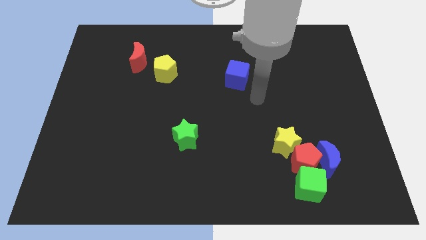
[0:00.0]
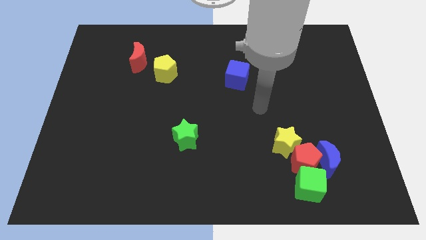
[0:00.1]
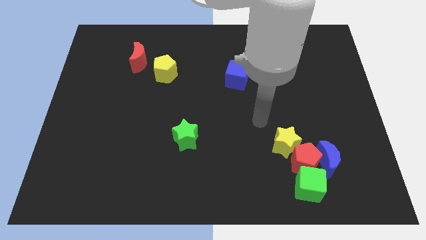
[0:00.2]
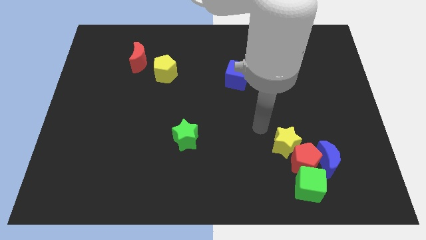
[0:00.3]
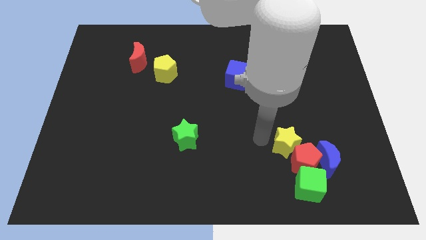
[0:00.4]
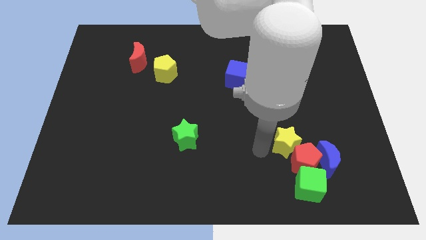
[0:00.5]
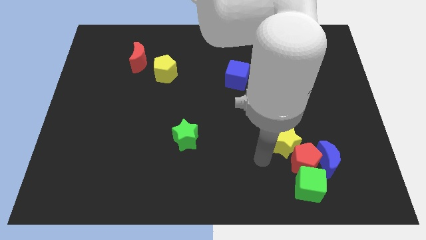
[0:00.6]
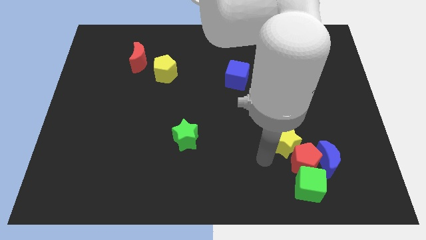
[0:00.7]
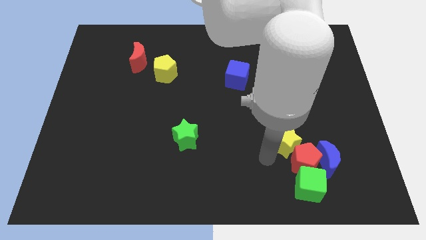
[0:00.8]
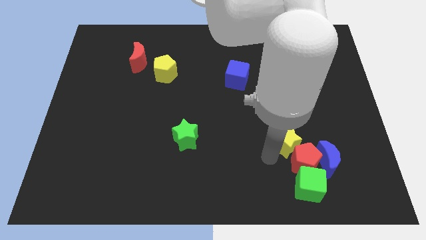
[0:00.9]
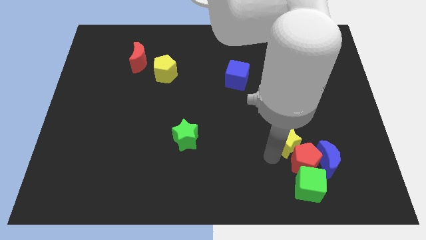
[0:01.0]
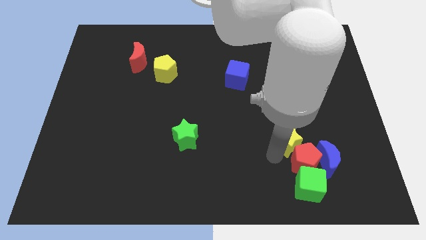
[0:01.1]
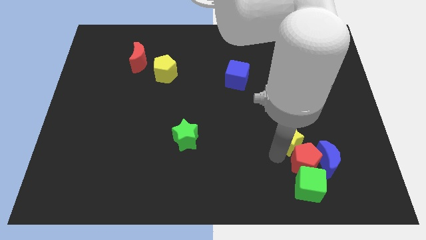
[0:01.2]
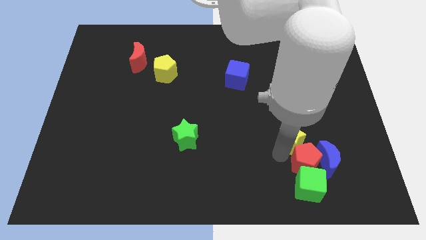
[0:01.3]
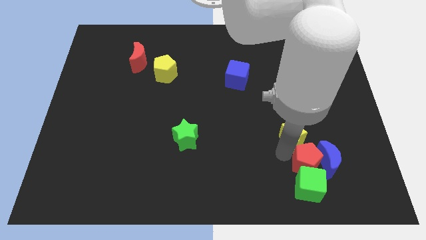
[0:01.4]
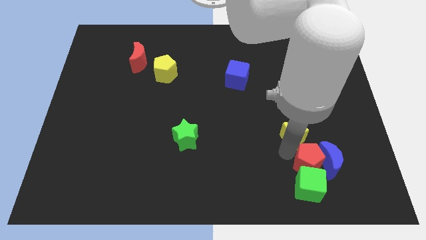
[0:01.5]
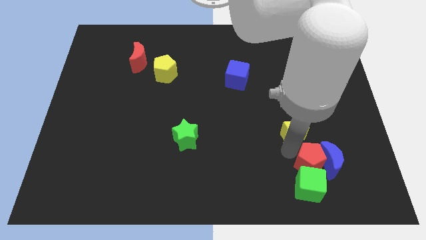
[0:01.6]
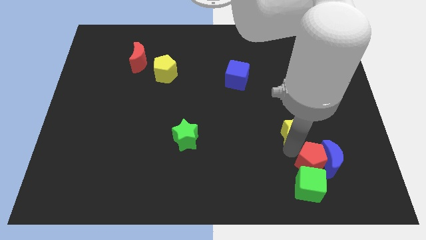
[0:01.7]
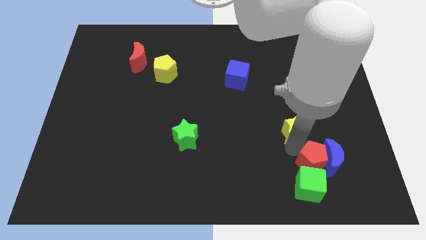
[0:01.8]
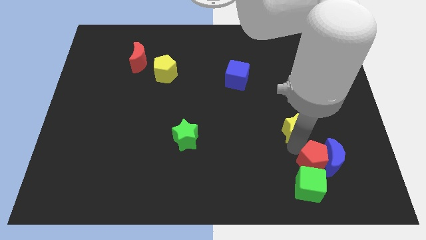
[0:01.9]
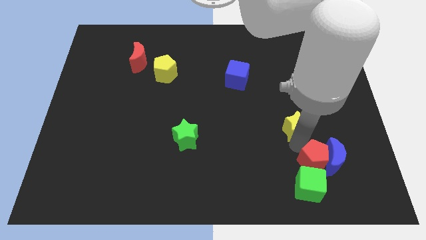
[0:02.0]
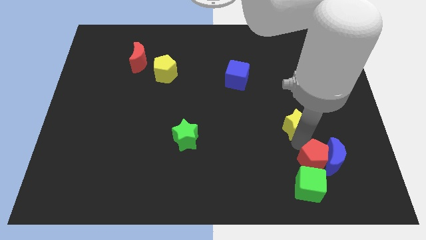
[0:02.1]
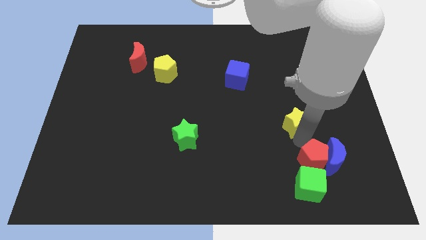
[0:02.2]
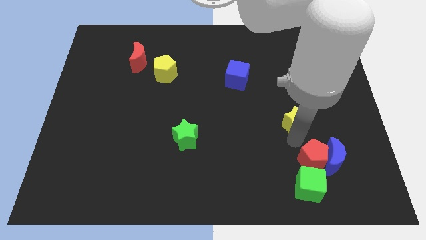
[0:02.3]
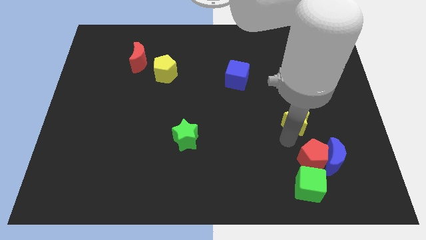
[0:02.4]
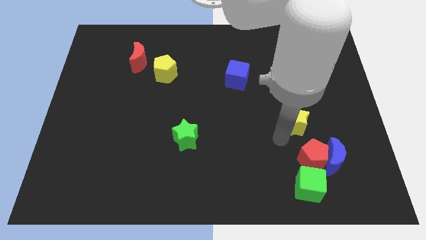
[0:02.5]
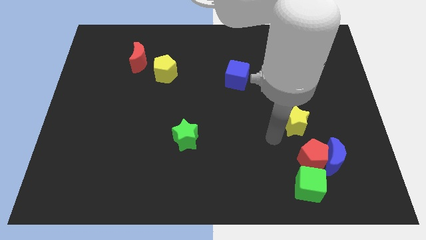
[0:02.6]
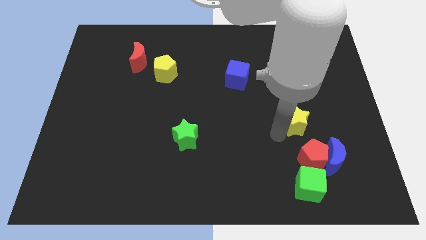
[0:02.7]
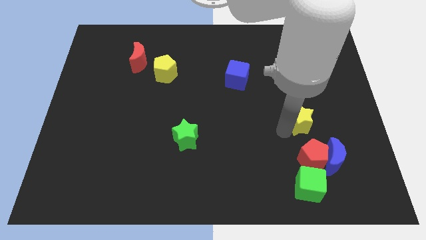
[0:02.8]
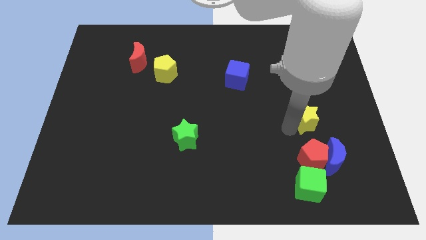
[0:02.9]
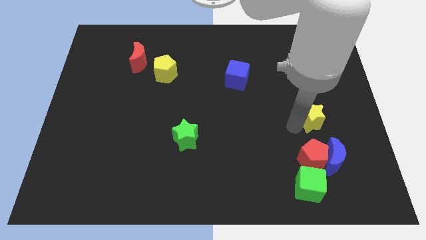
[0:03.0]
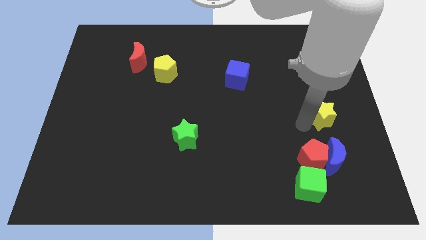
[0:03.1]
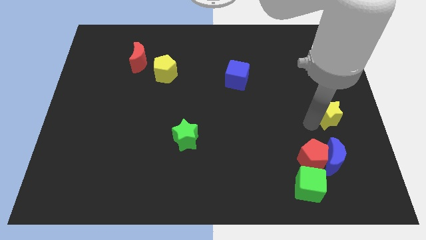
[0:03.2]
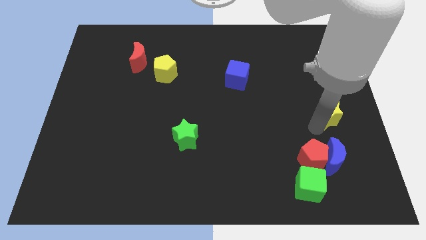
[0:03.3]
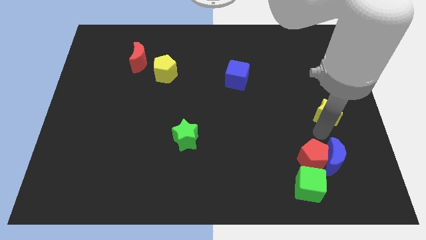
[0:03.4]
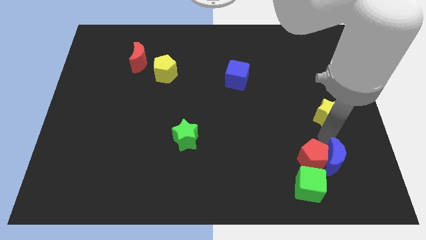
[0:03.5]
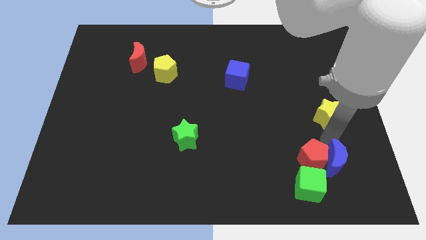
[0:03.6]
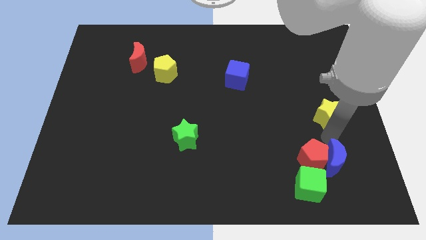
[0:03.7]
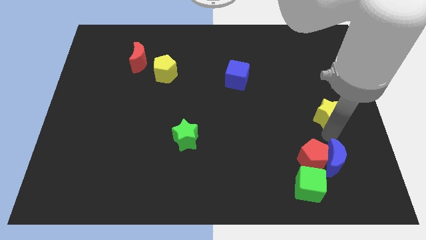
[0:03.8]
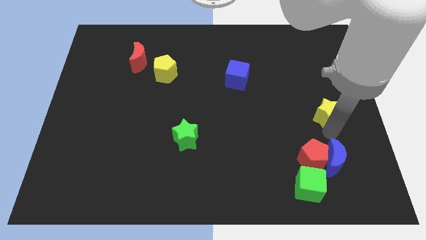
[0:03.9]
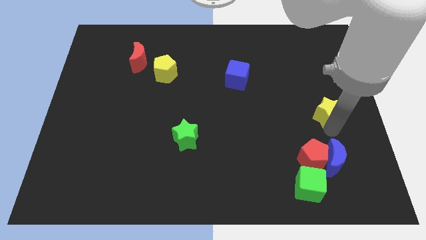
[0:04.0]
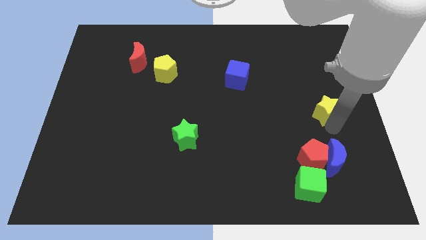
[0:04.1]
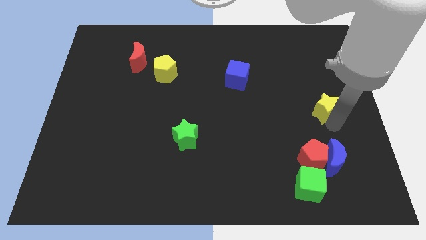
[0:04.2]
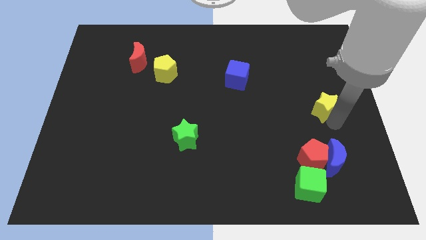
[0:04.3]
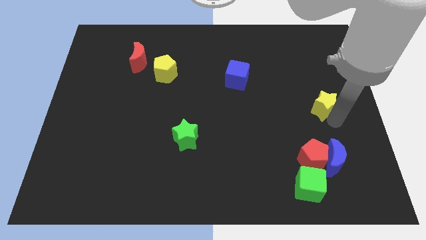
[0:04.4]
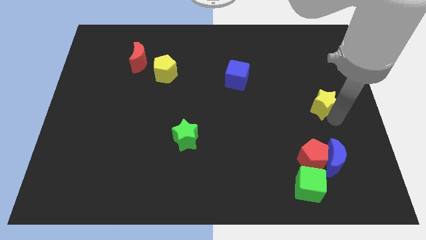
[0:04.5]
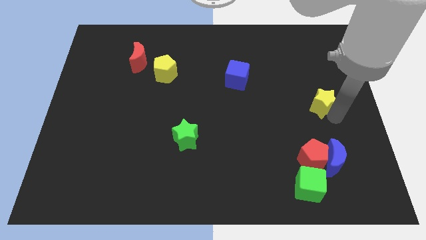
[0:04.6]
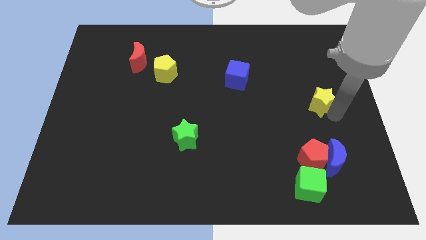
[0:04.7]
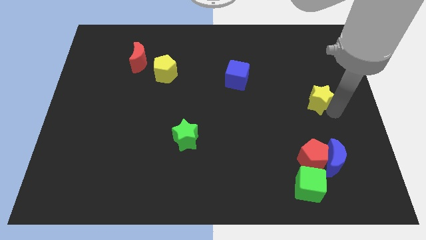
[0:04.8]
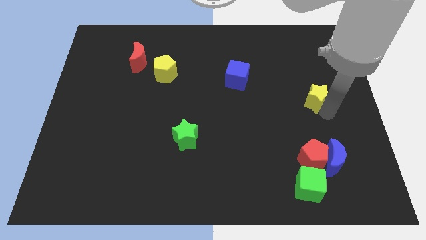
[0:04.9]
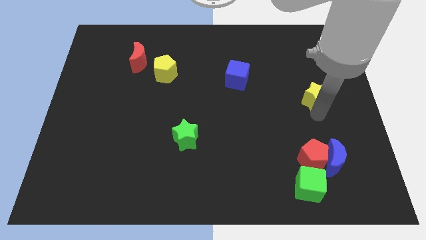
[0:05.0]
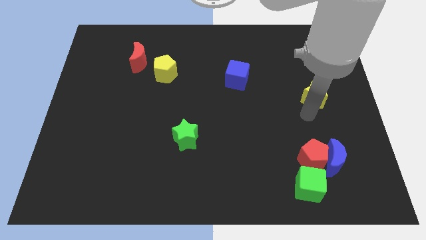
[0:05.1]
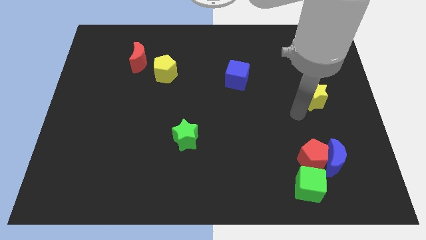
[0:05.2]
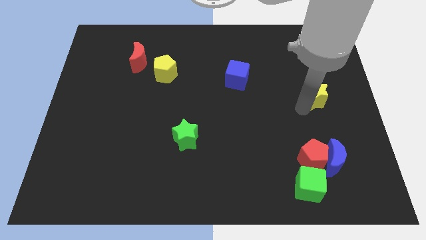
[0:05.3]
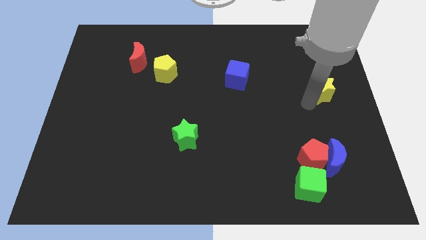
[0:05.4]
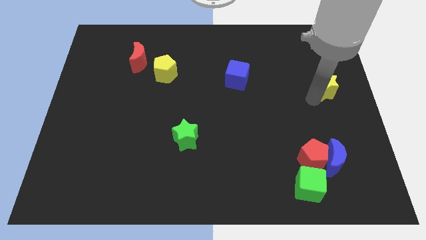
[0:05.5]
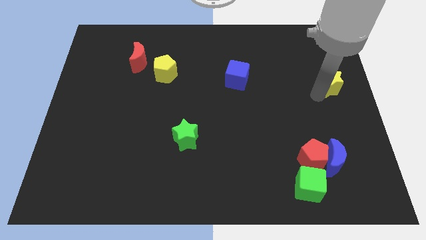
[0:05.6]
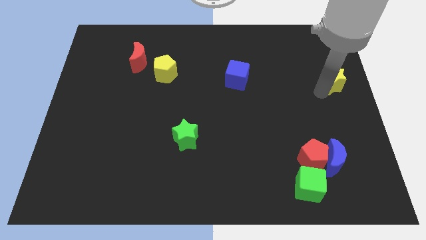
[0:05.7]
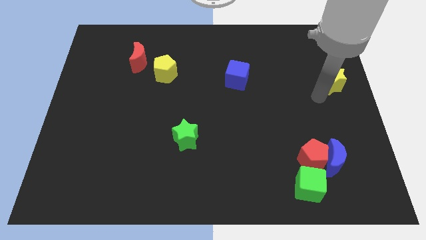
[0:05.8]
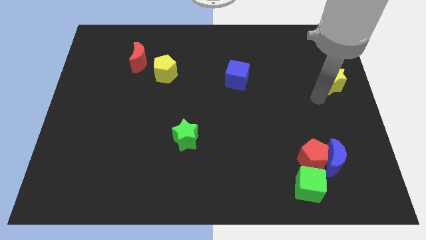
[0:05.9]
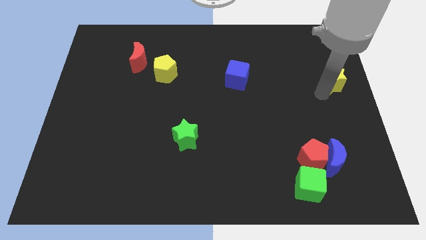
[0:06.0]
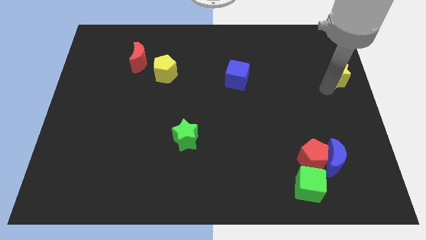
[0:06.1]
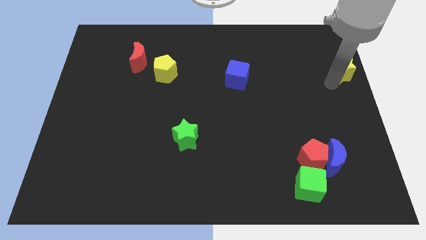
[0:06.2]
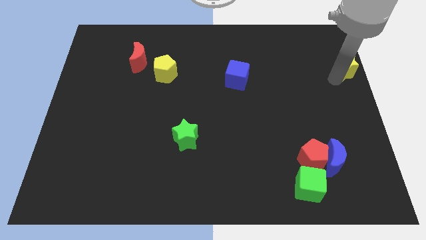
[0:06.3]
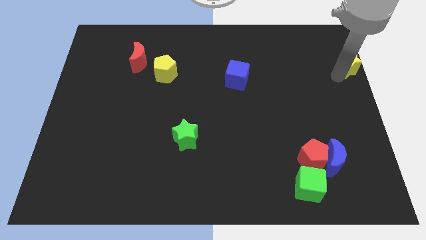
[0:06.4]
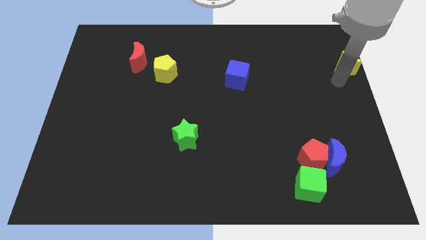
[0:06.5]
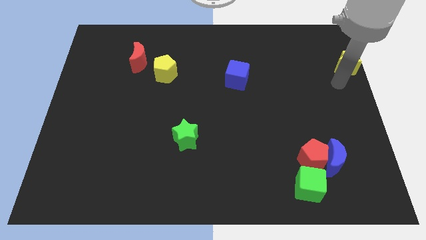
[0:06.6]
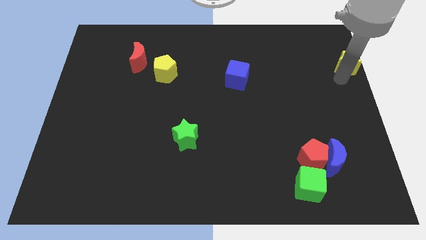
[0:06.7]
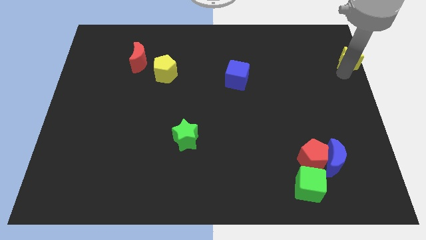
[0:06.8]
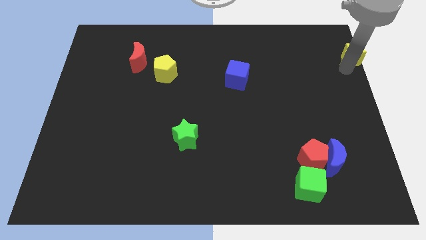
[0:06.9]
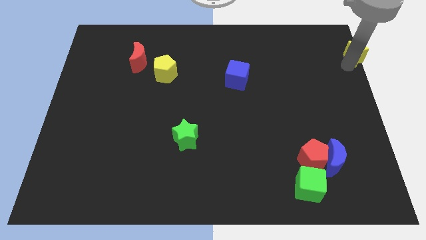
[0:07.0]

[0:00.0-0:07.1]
put the yellow star to the top right
